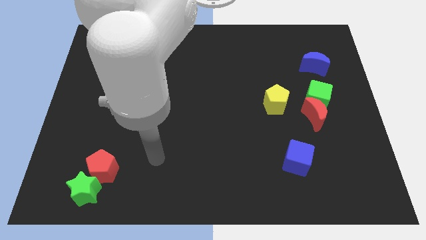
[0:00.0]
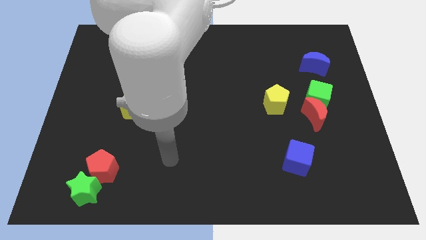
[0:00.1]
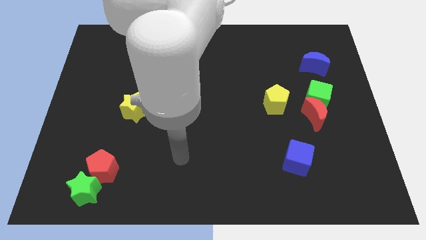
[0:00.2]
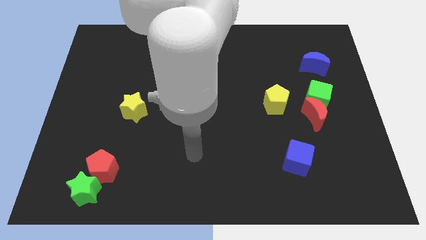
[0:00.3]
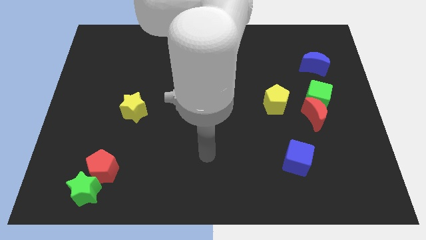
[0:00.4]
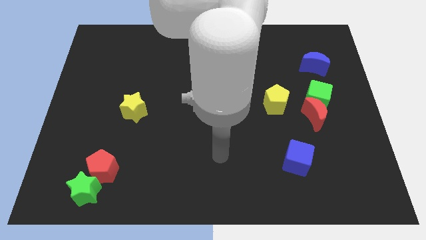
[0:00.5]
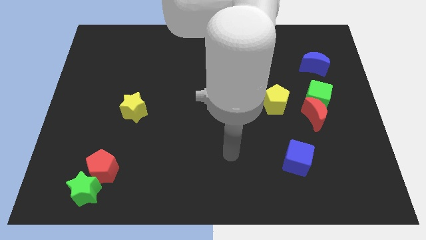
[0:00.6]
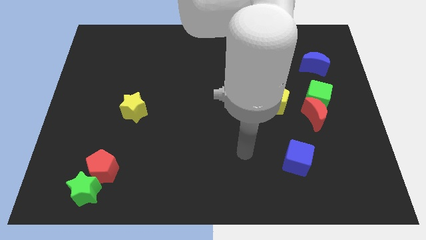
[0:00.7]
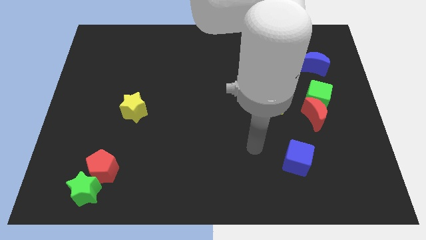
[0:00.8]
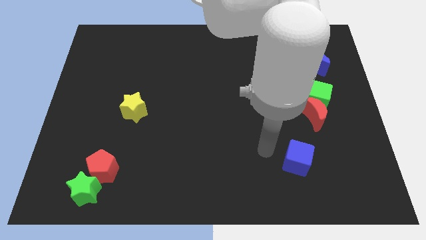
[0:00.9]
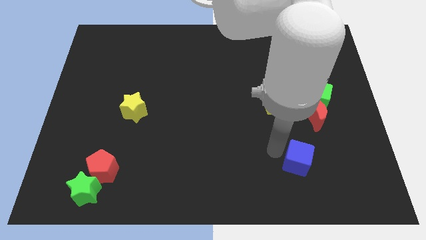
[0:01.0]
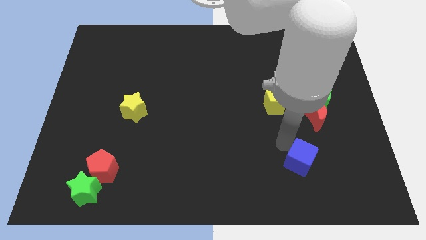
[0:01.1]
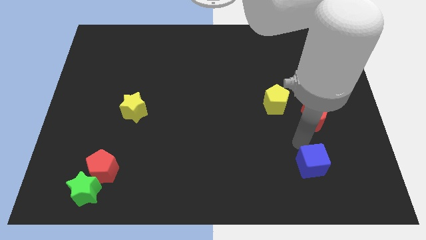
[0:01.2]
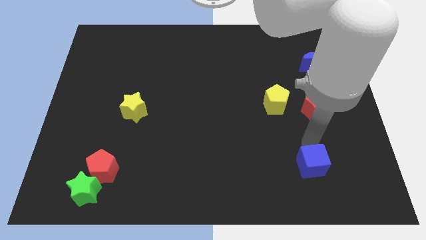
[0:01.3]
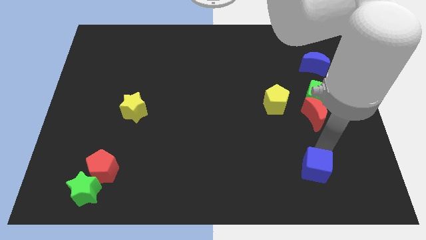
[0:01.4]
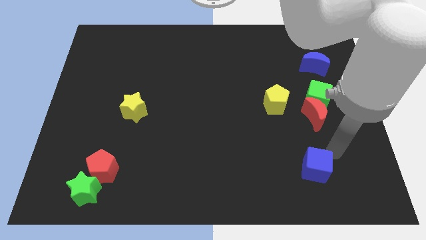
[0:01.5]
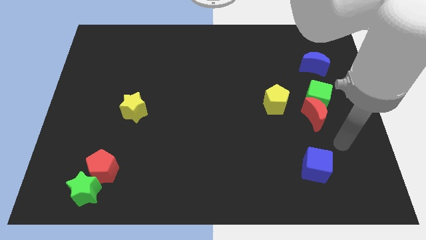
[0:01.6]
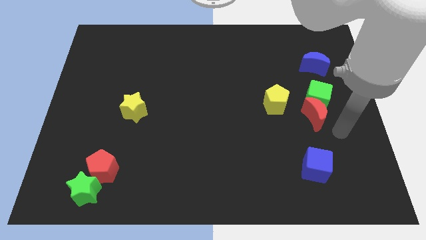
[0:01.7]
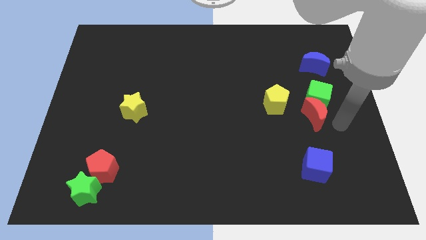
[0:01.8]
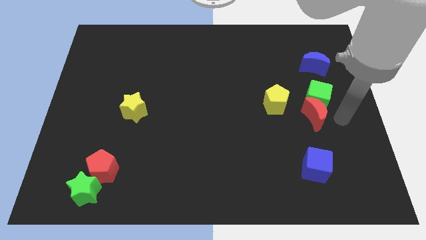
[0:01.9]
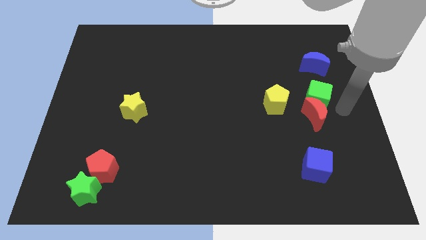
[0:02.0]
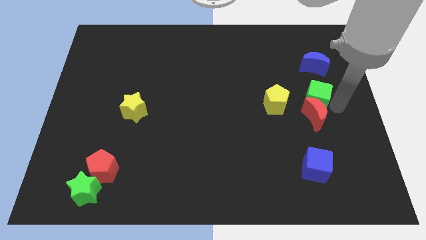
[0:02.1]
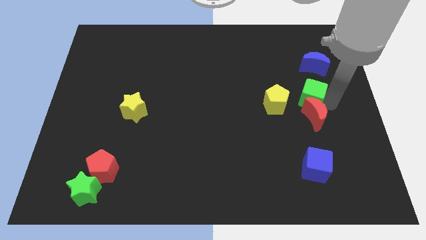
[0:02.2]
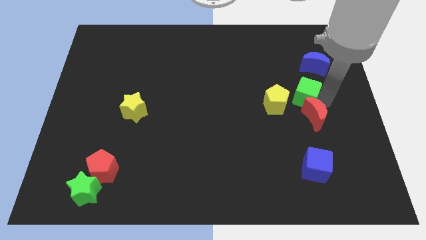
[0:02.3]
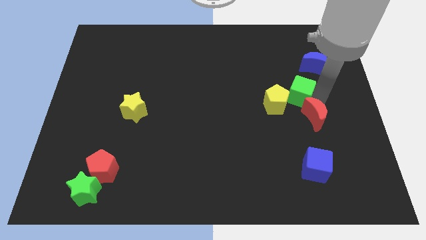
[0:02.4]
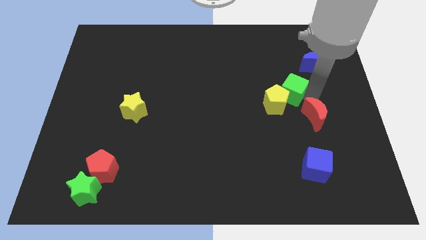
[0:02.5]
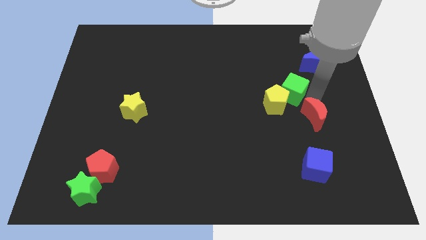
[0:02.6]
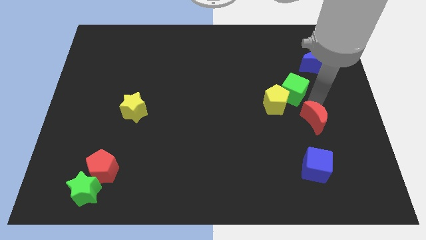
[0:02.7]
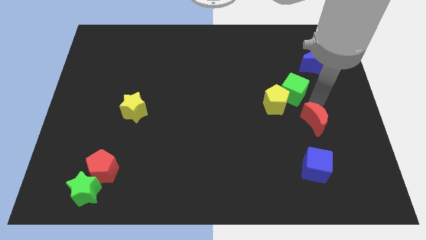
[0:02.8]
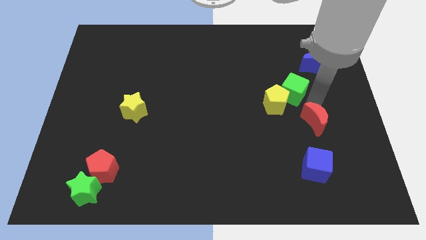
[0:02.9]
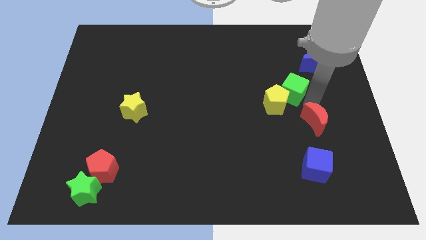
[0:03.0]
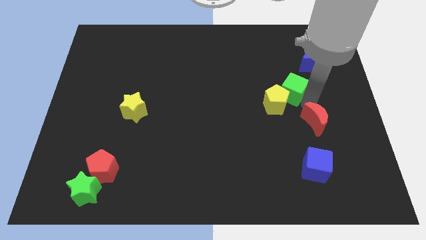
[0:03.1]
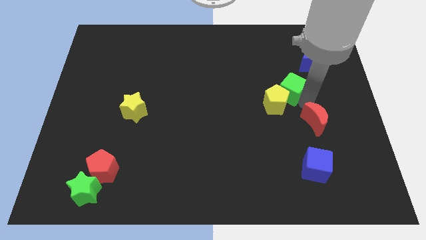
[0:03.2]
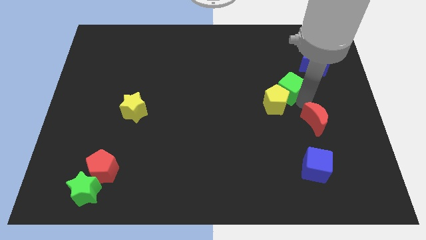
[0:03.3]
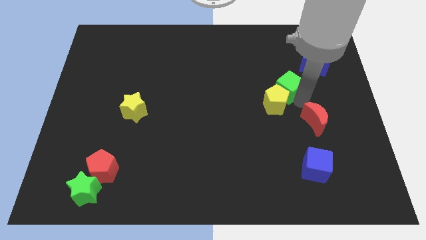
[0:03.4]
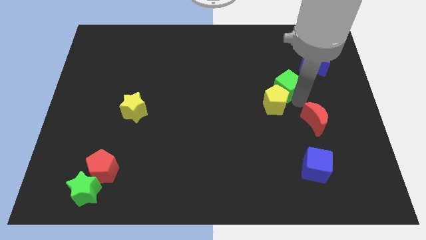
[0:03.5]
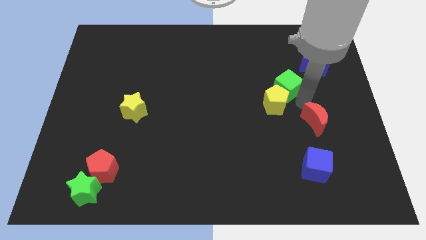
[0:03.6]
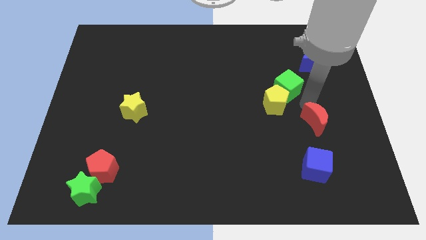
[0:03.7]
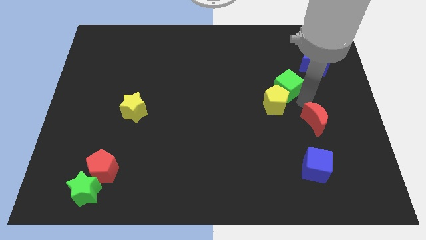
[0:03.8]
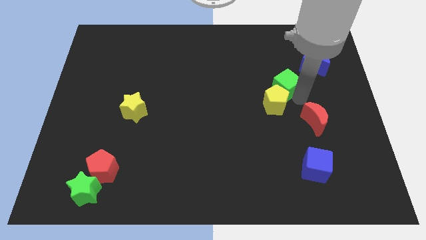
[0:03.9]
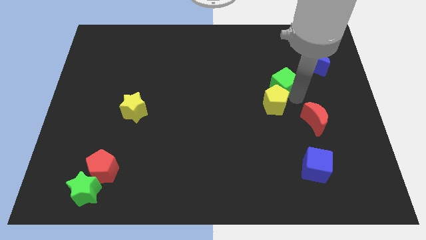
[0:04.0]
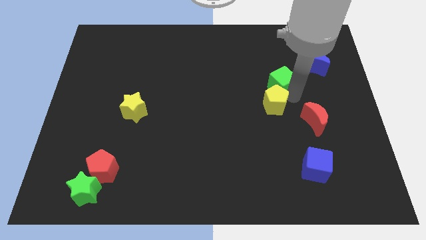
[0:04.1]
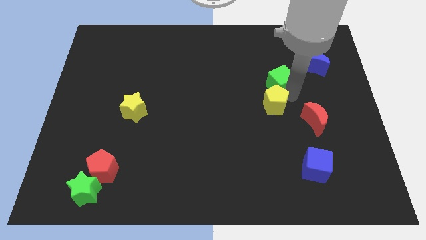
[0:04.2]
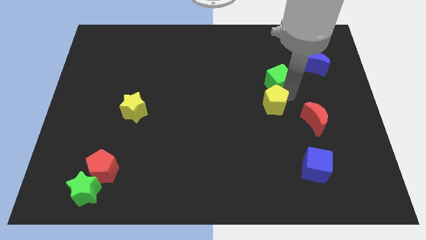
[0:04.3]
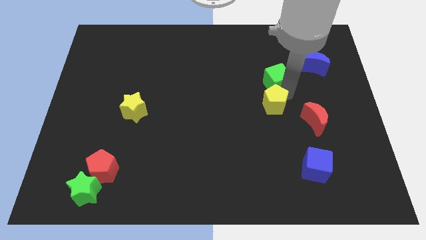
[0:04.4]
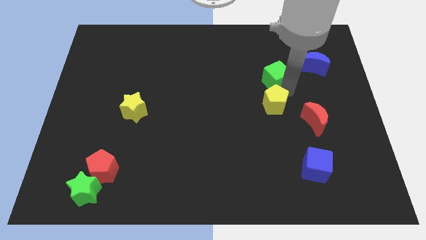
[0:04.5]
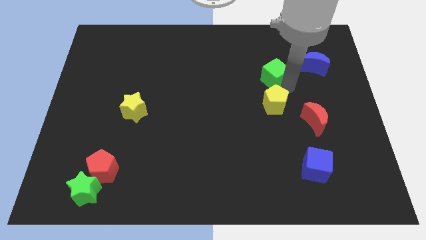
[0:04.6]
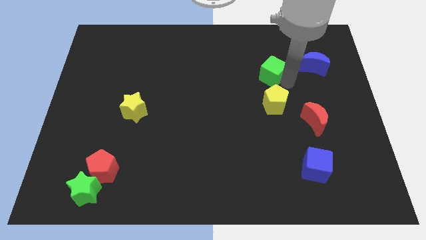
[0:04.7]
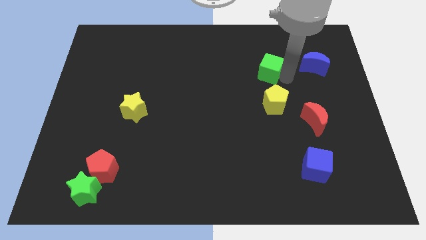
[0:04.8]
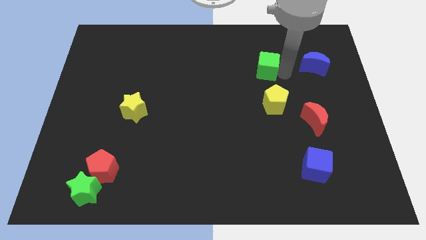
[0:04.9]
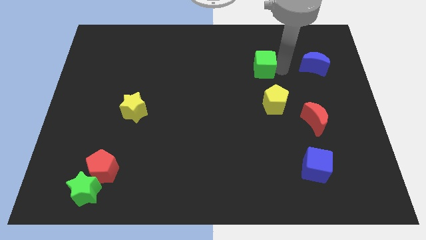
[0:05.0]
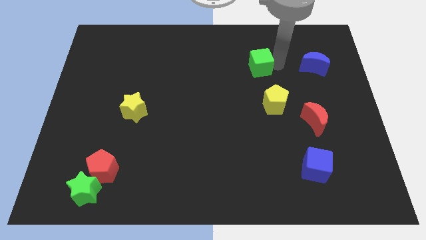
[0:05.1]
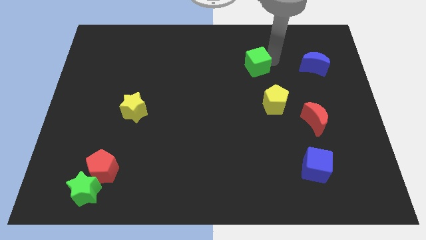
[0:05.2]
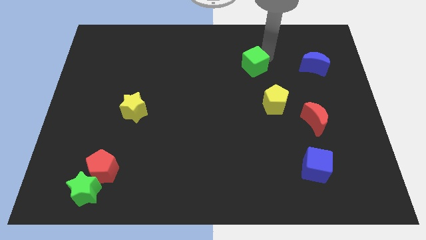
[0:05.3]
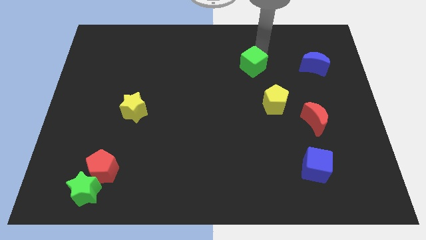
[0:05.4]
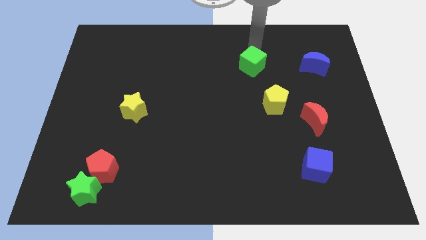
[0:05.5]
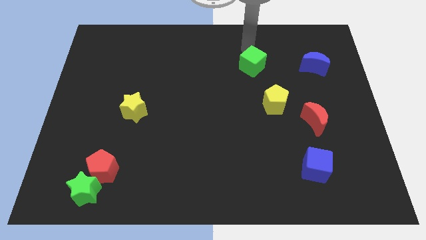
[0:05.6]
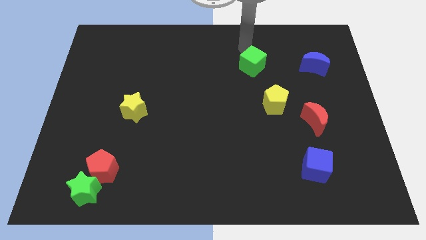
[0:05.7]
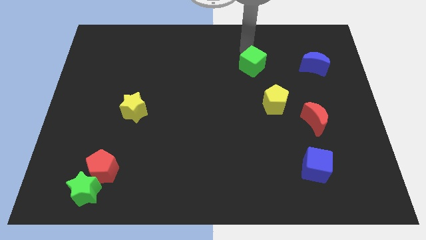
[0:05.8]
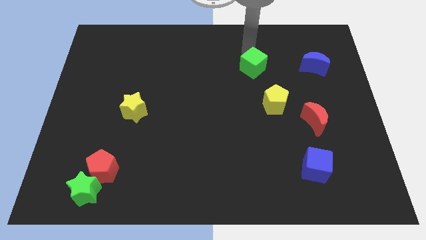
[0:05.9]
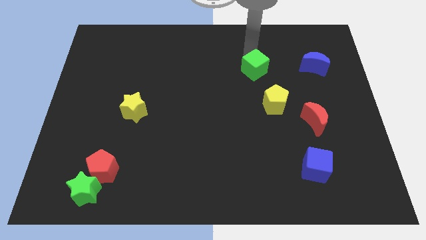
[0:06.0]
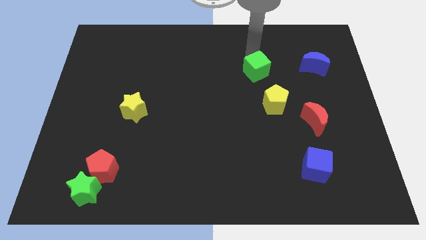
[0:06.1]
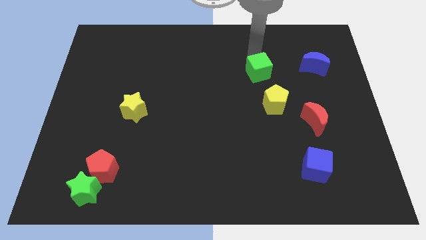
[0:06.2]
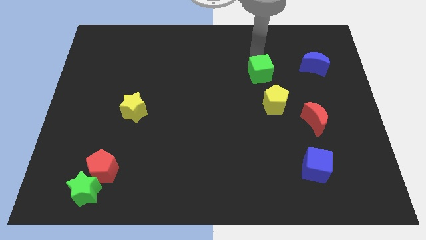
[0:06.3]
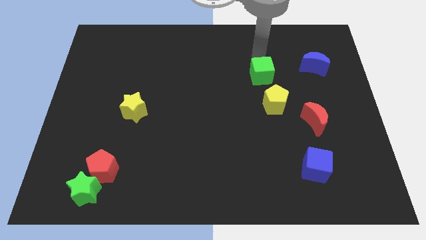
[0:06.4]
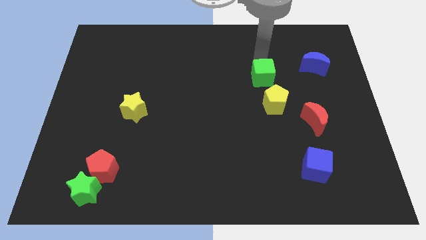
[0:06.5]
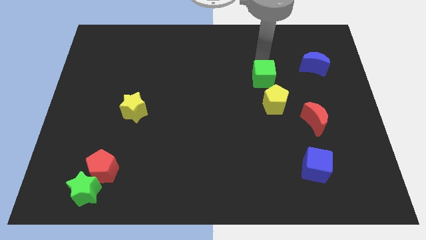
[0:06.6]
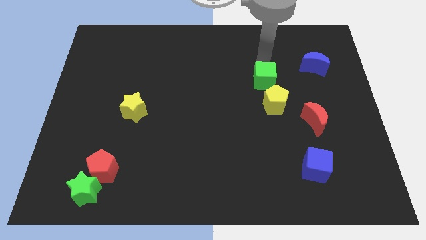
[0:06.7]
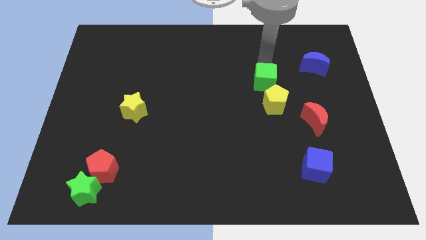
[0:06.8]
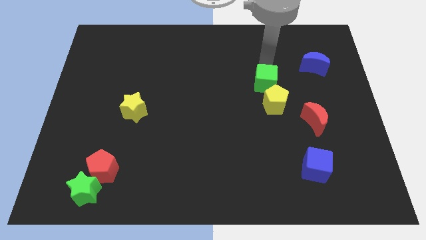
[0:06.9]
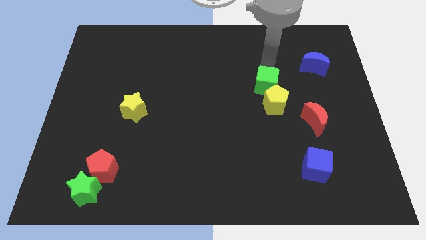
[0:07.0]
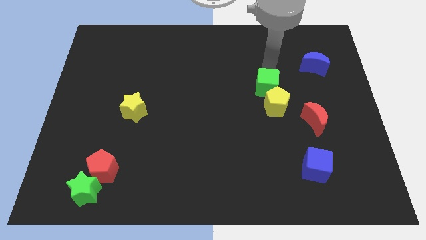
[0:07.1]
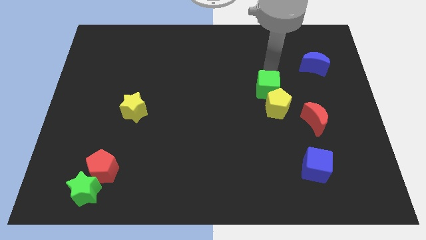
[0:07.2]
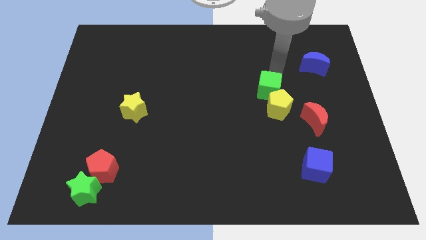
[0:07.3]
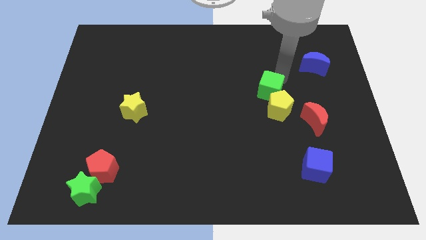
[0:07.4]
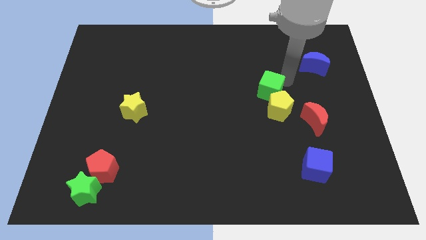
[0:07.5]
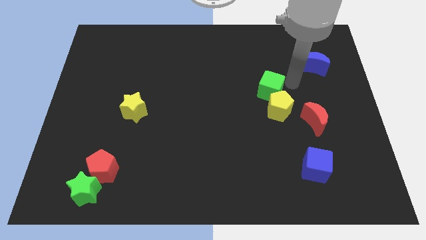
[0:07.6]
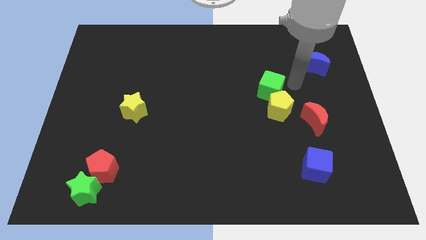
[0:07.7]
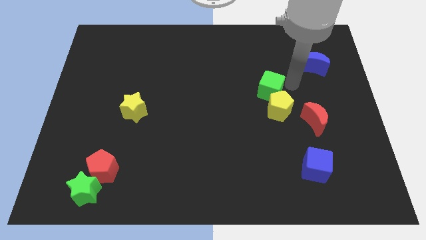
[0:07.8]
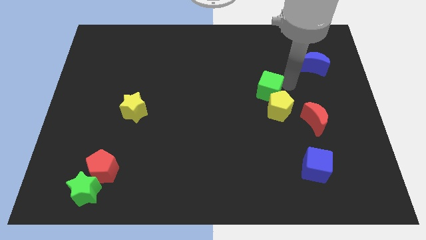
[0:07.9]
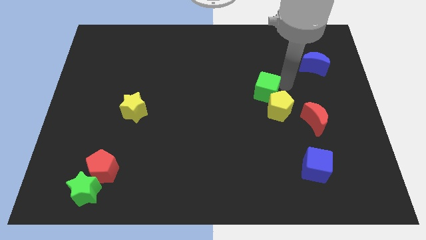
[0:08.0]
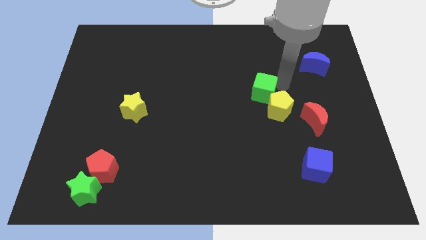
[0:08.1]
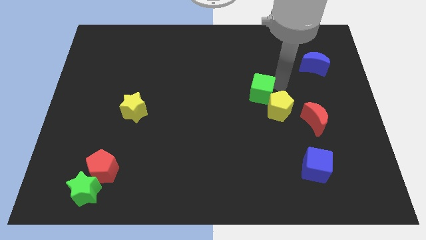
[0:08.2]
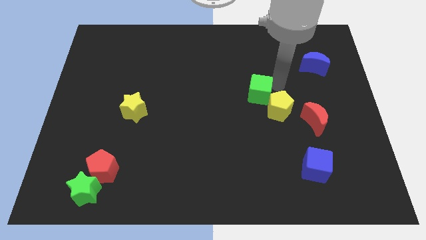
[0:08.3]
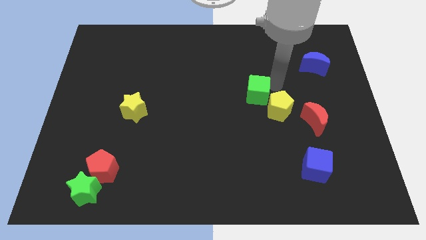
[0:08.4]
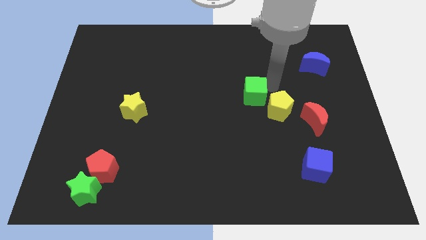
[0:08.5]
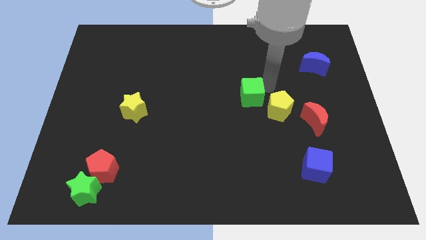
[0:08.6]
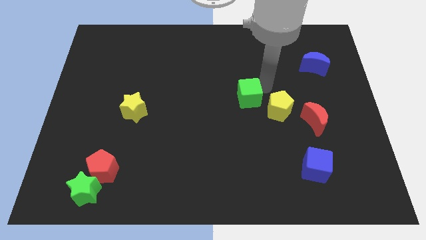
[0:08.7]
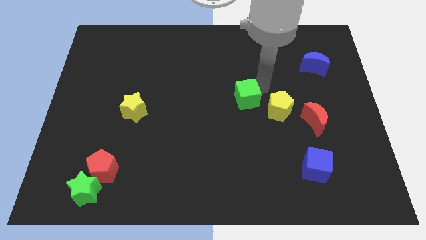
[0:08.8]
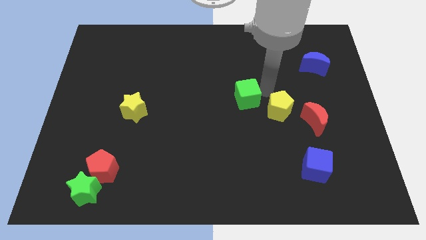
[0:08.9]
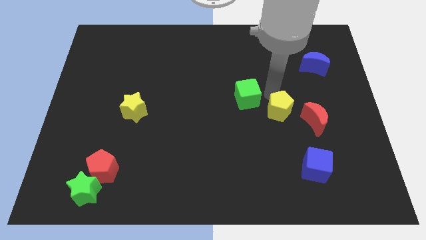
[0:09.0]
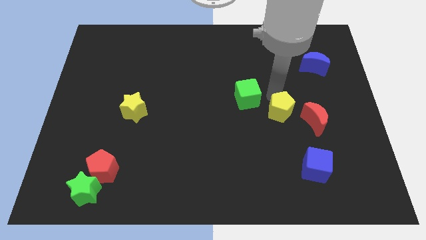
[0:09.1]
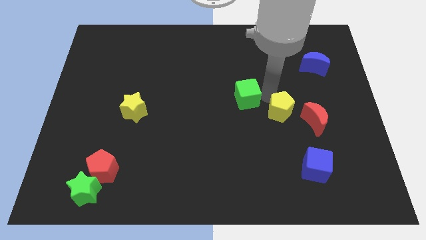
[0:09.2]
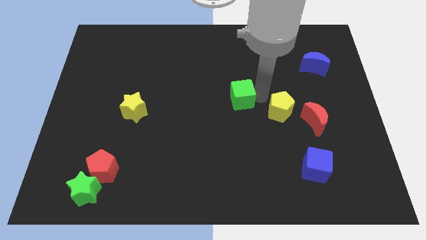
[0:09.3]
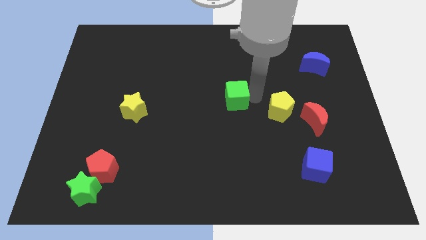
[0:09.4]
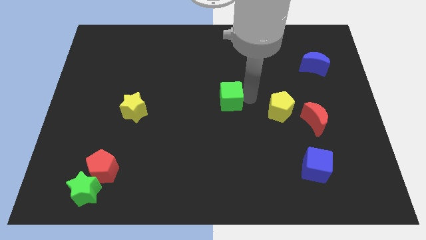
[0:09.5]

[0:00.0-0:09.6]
move the green cube left
